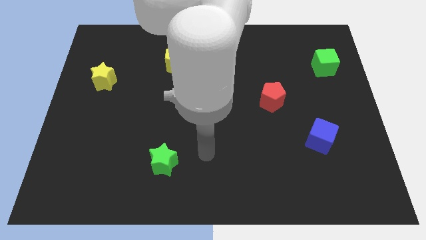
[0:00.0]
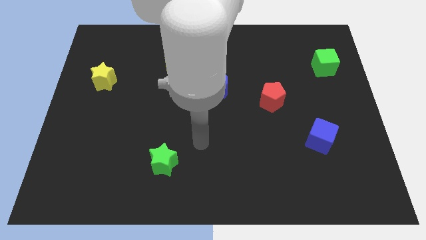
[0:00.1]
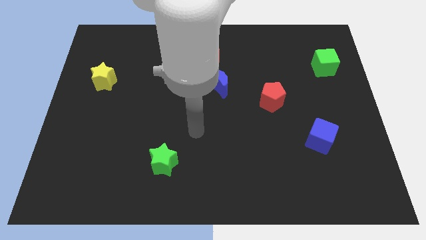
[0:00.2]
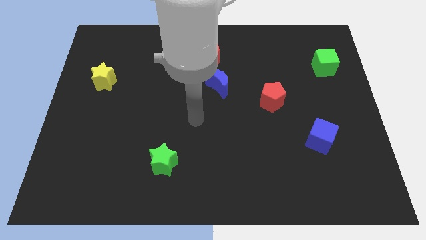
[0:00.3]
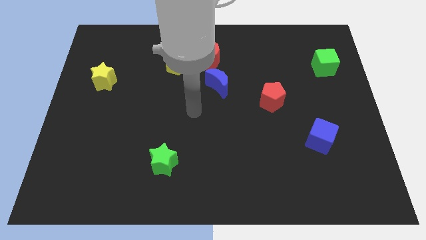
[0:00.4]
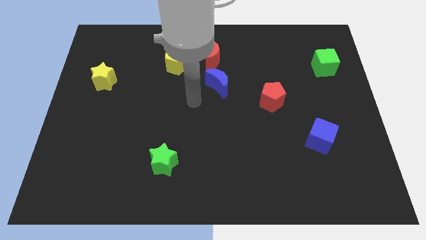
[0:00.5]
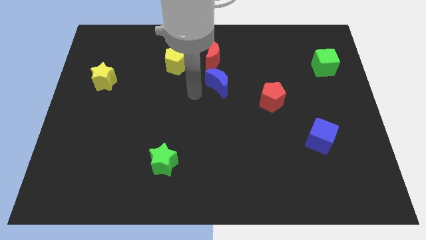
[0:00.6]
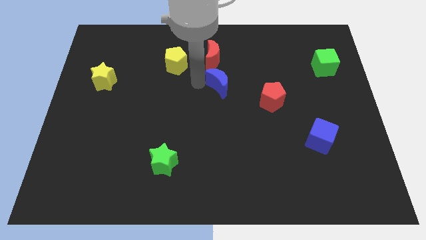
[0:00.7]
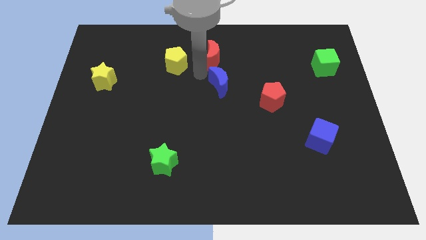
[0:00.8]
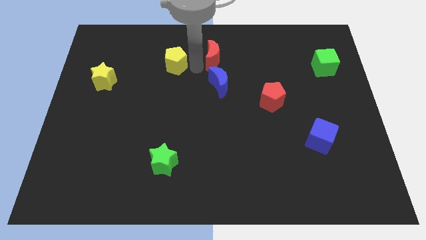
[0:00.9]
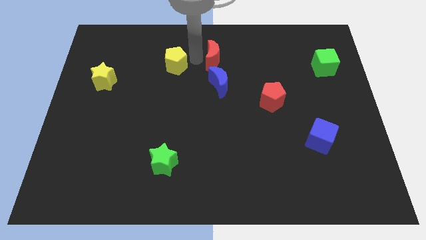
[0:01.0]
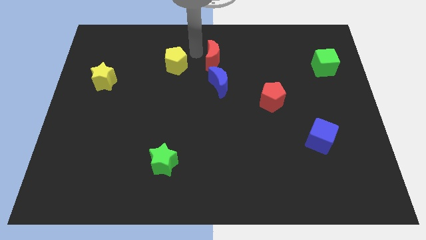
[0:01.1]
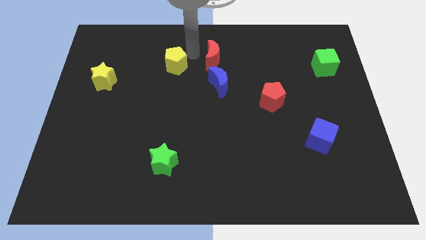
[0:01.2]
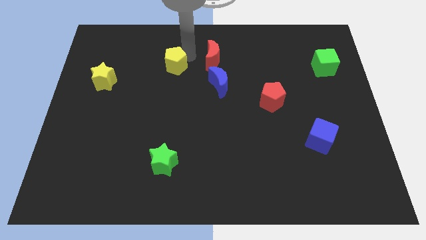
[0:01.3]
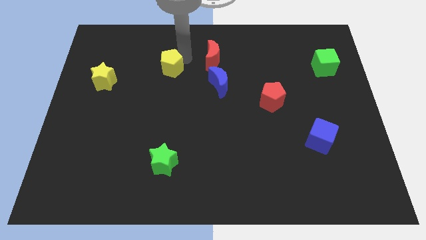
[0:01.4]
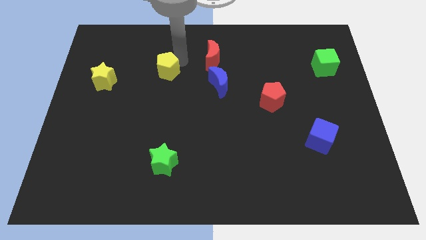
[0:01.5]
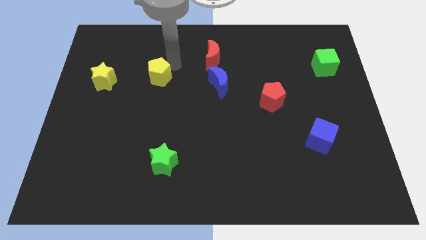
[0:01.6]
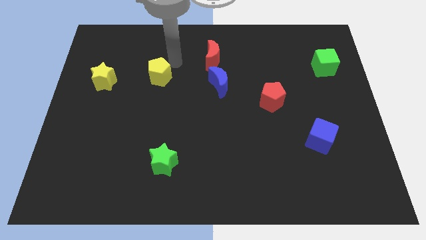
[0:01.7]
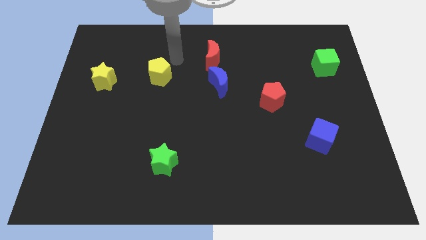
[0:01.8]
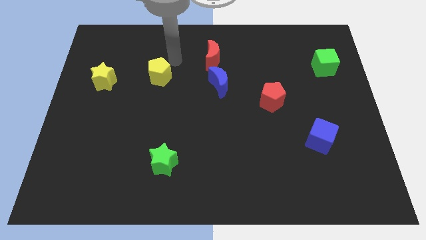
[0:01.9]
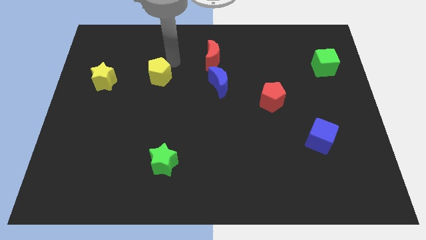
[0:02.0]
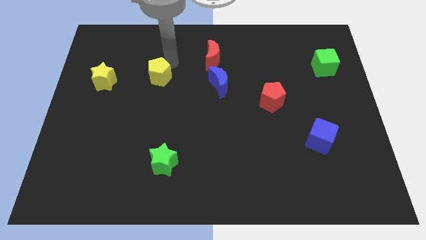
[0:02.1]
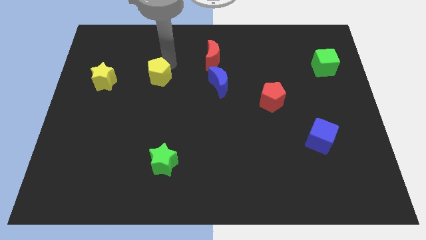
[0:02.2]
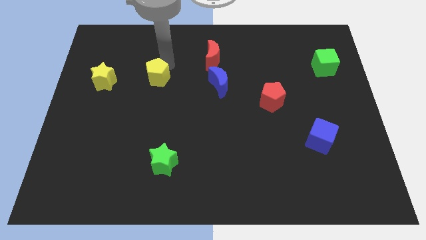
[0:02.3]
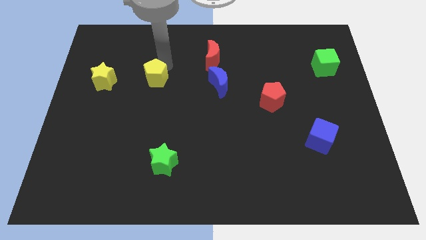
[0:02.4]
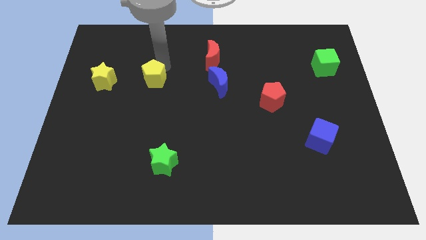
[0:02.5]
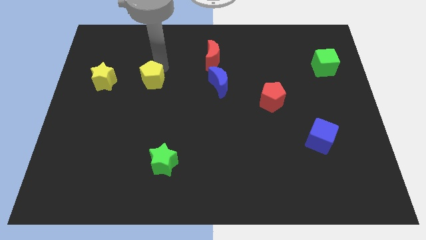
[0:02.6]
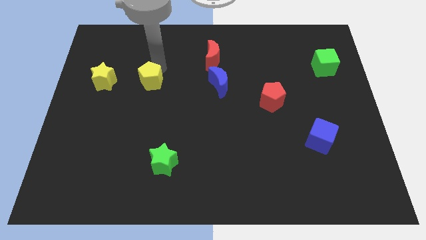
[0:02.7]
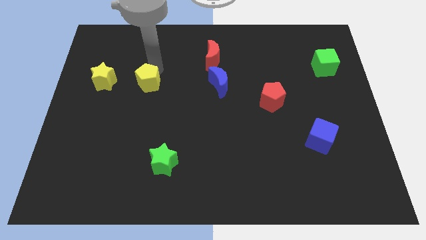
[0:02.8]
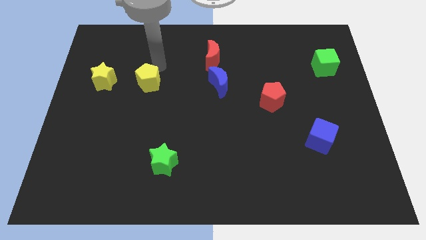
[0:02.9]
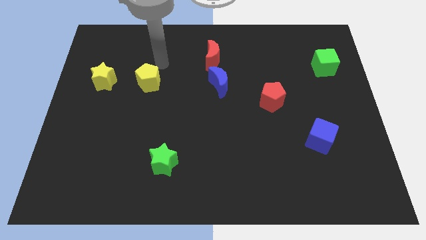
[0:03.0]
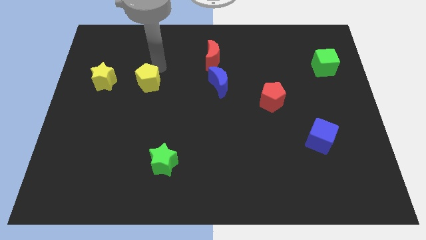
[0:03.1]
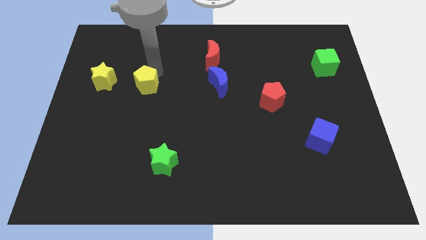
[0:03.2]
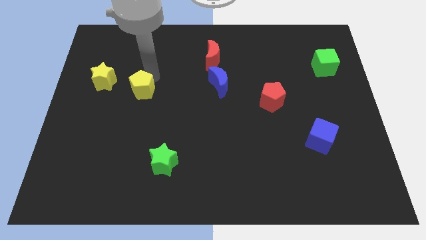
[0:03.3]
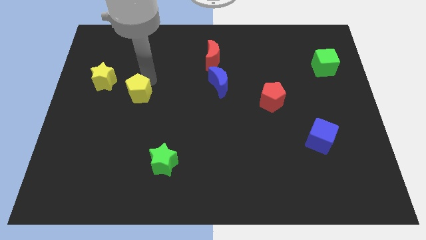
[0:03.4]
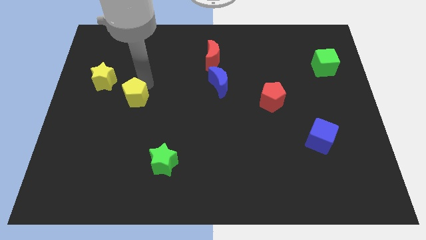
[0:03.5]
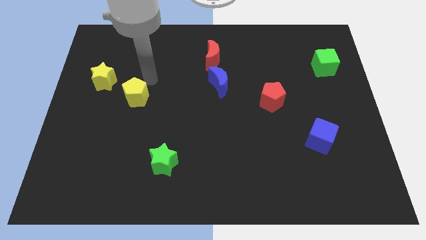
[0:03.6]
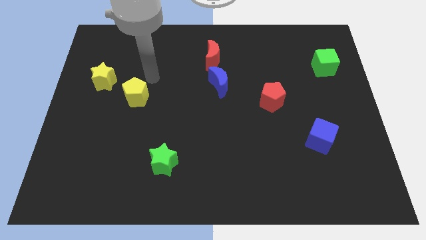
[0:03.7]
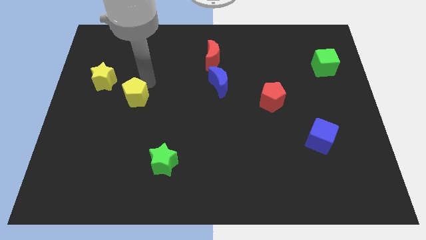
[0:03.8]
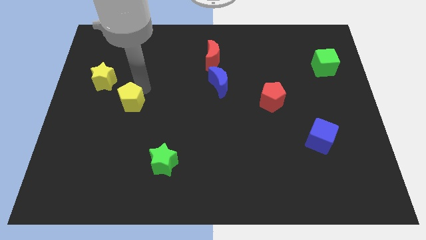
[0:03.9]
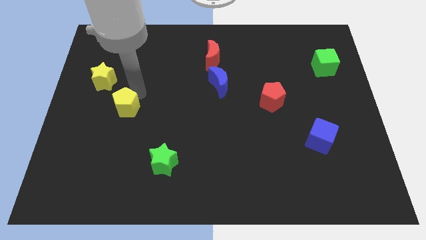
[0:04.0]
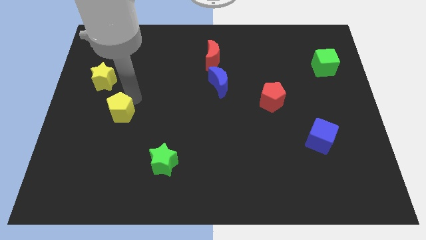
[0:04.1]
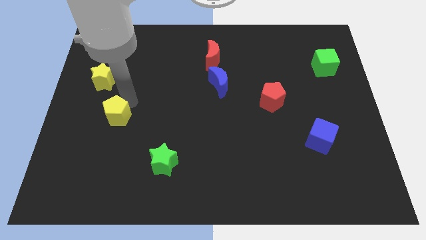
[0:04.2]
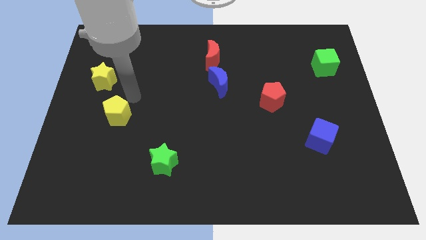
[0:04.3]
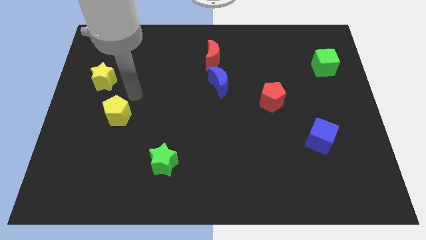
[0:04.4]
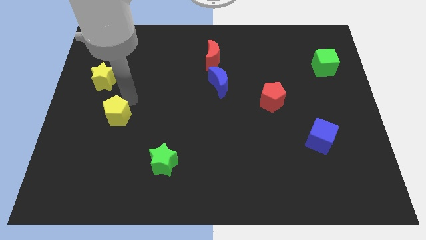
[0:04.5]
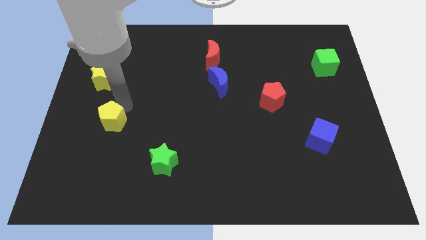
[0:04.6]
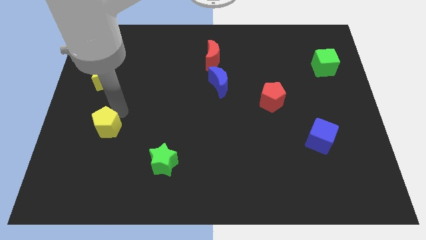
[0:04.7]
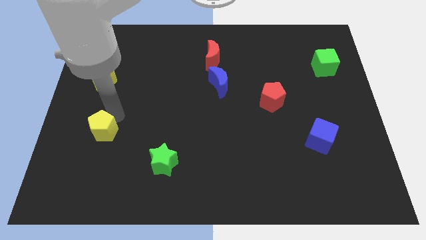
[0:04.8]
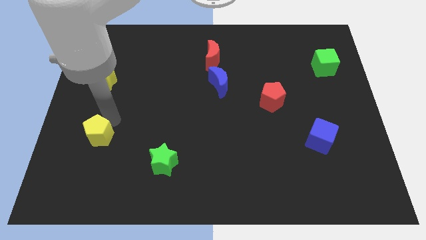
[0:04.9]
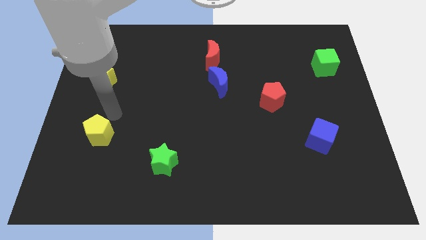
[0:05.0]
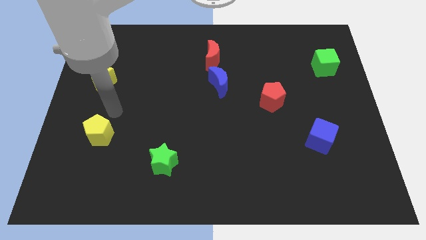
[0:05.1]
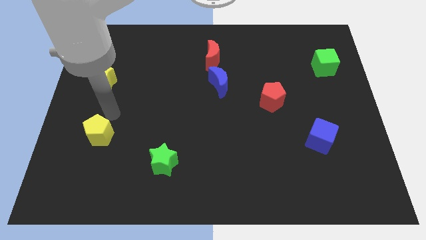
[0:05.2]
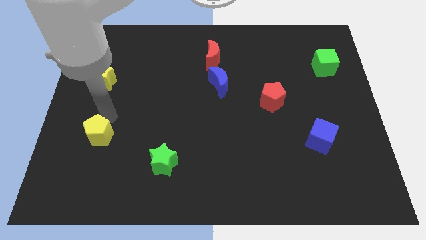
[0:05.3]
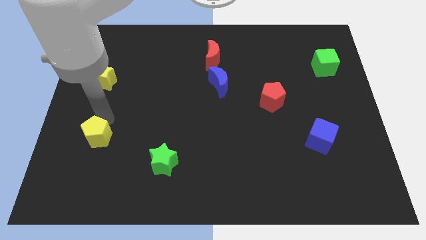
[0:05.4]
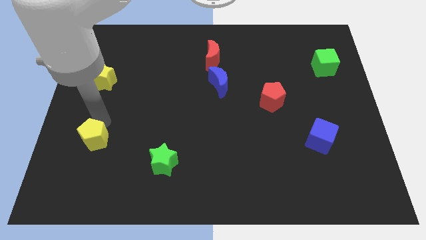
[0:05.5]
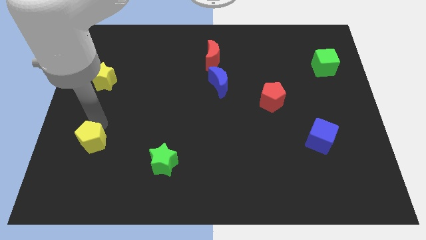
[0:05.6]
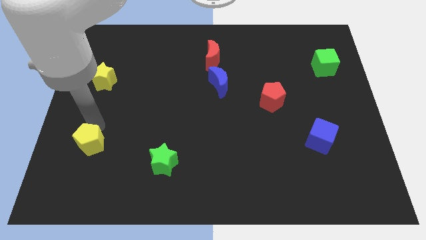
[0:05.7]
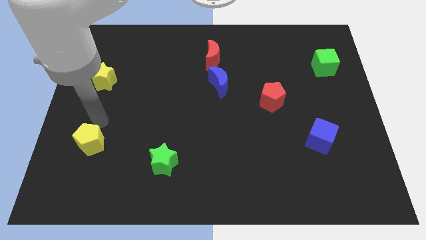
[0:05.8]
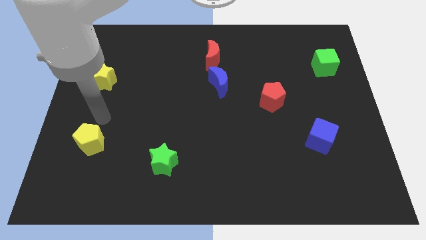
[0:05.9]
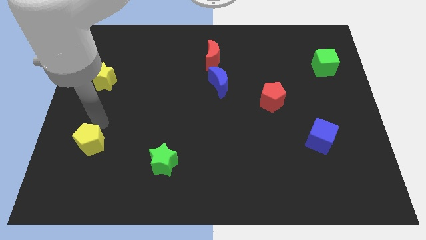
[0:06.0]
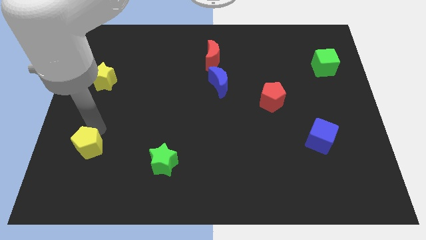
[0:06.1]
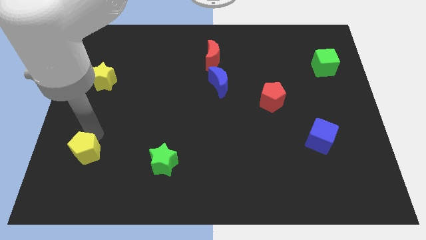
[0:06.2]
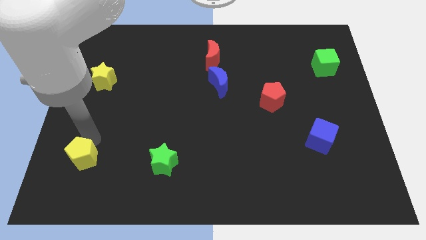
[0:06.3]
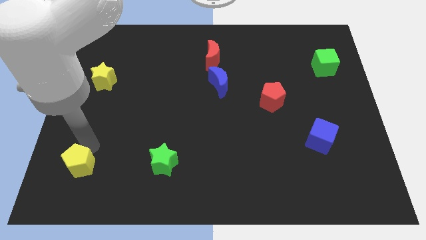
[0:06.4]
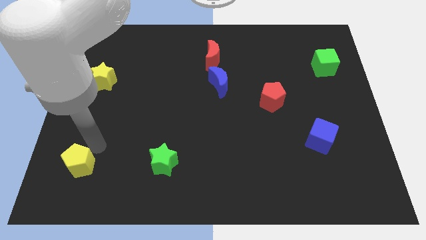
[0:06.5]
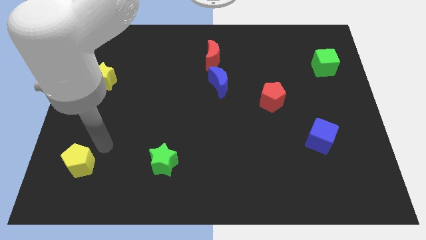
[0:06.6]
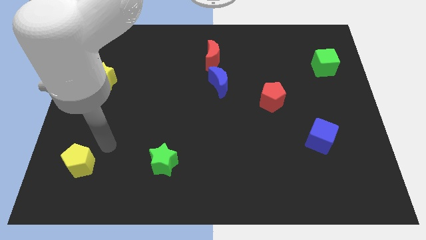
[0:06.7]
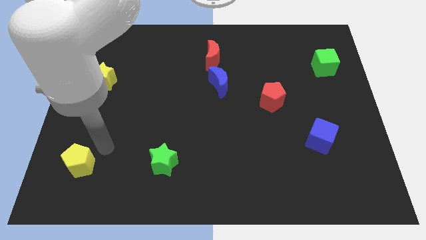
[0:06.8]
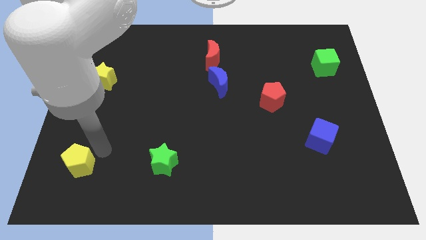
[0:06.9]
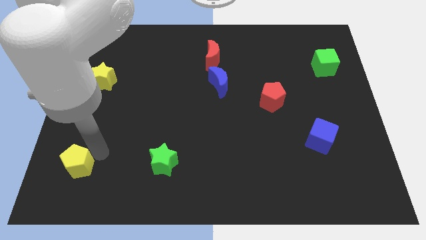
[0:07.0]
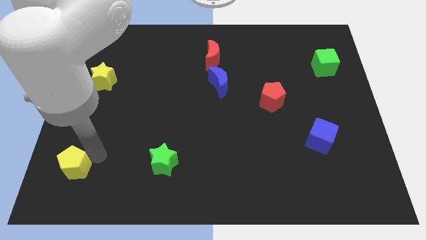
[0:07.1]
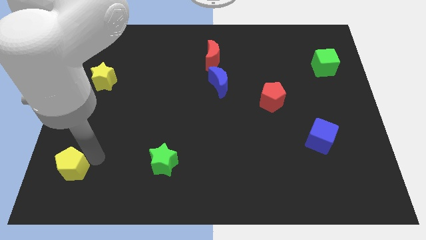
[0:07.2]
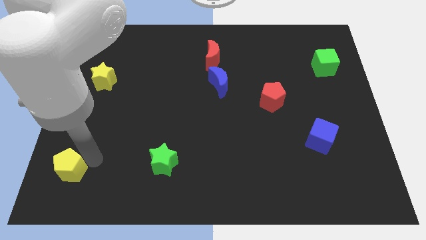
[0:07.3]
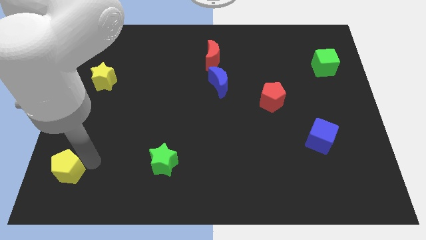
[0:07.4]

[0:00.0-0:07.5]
move the yellow pentagon to the bottom left corner
